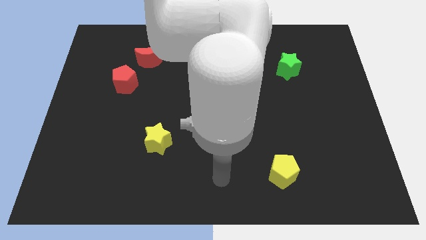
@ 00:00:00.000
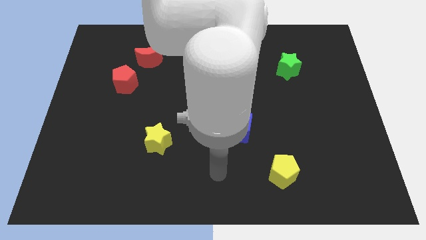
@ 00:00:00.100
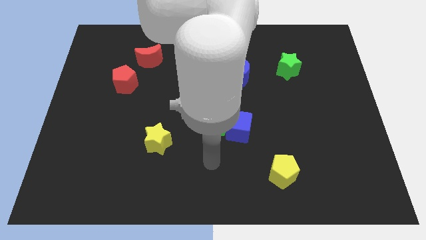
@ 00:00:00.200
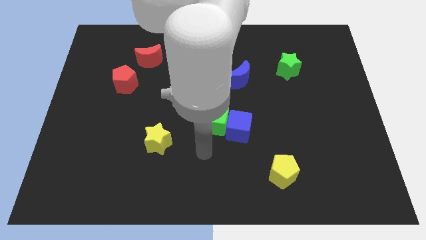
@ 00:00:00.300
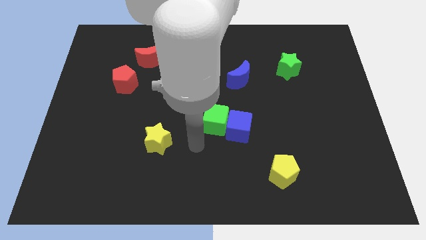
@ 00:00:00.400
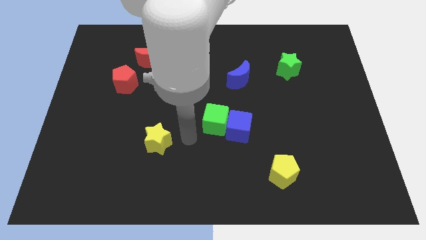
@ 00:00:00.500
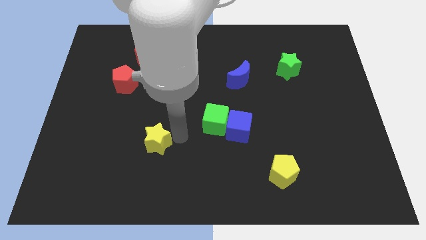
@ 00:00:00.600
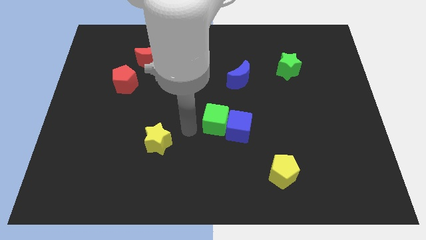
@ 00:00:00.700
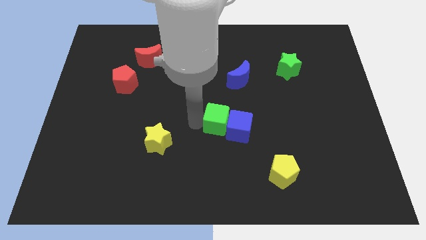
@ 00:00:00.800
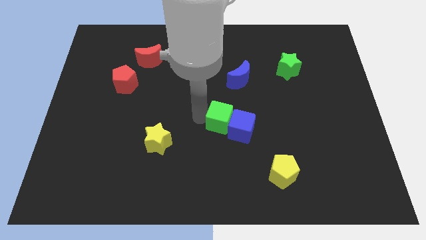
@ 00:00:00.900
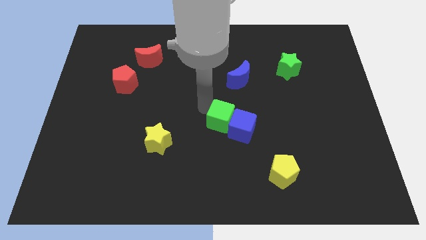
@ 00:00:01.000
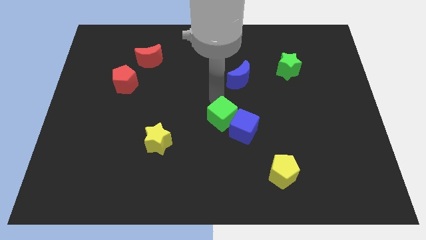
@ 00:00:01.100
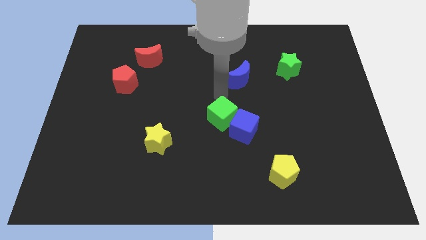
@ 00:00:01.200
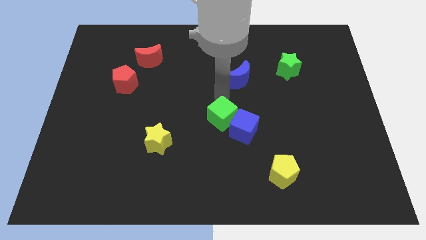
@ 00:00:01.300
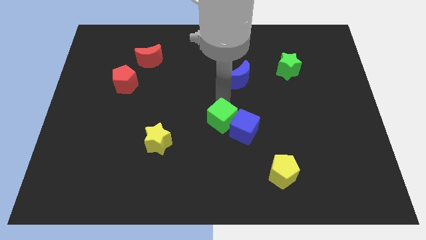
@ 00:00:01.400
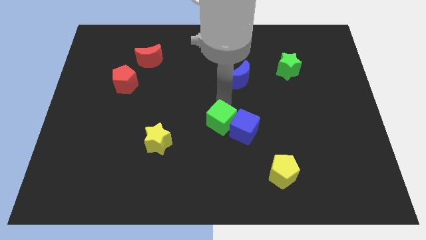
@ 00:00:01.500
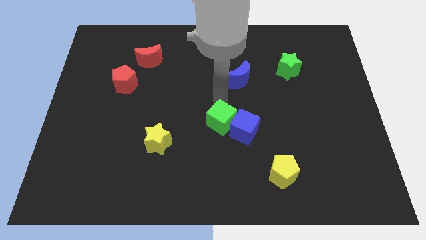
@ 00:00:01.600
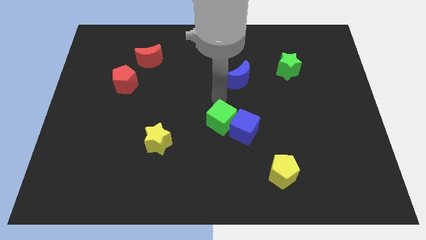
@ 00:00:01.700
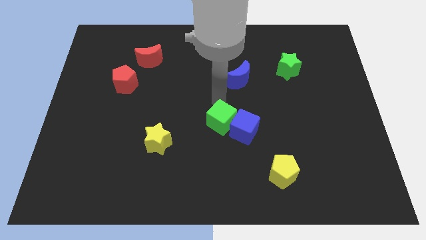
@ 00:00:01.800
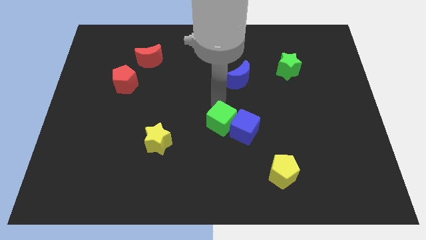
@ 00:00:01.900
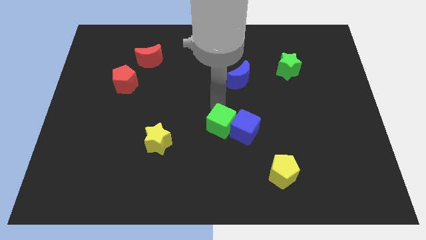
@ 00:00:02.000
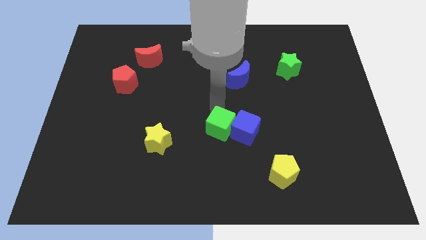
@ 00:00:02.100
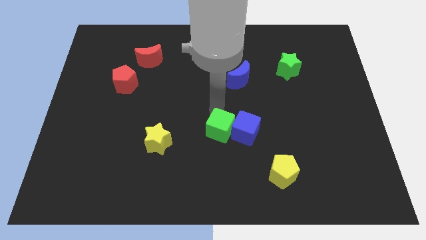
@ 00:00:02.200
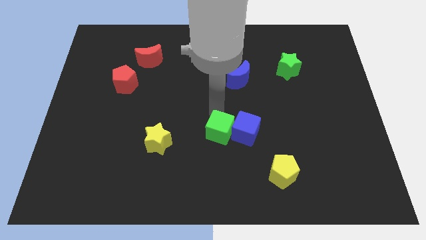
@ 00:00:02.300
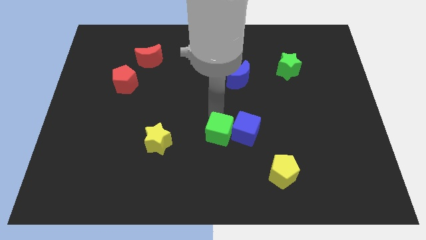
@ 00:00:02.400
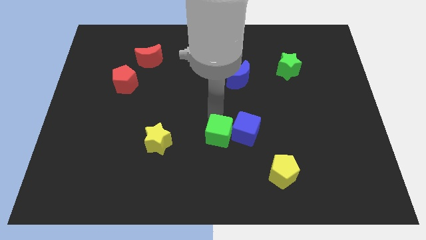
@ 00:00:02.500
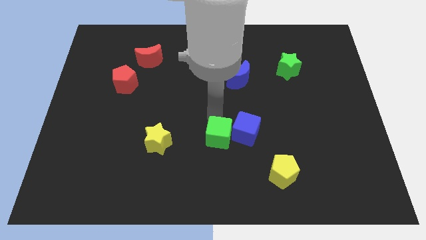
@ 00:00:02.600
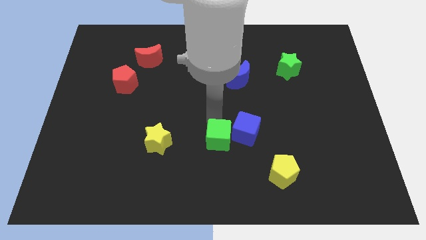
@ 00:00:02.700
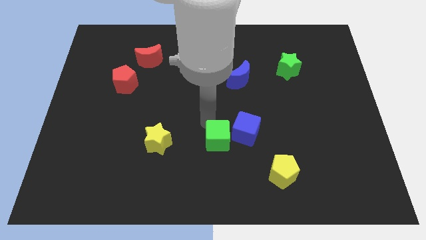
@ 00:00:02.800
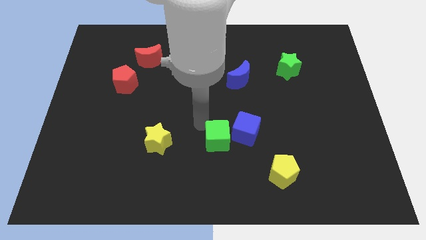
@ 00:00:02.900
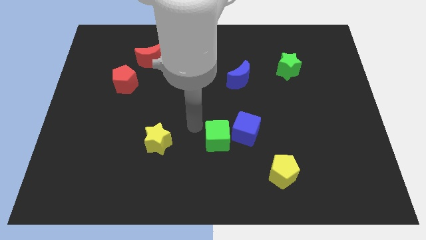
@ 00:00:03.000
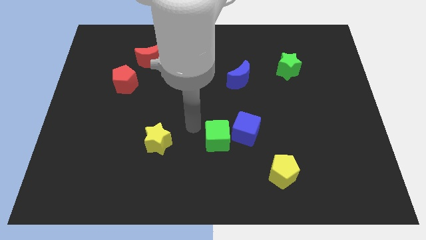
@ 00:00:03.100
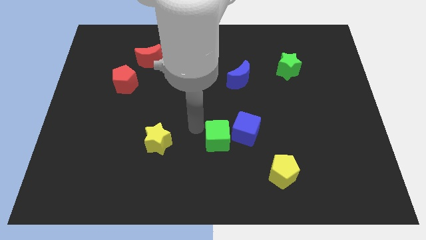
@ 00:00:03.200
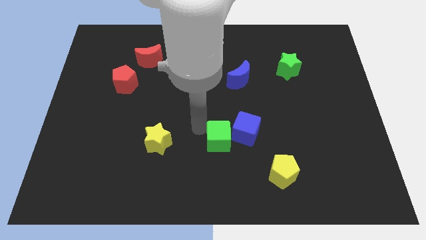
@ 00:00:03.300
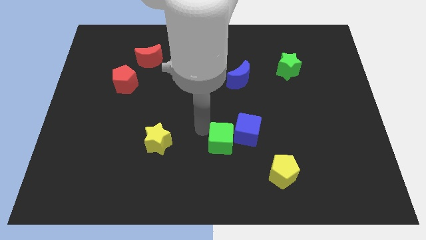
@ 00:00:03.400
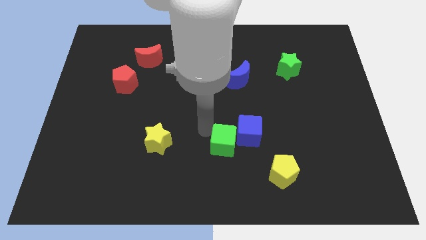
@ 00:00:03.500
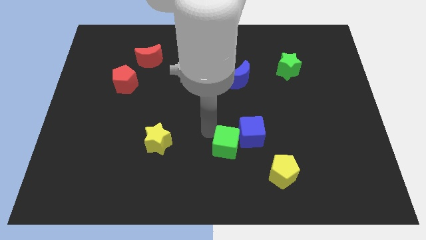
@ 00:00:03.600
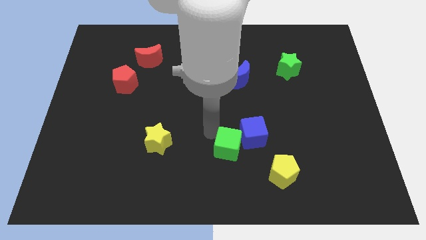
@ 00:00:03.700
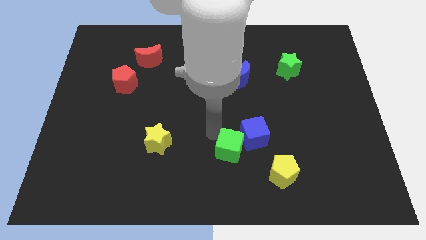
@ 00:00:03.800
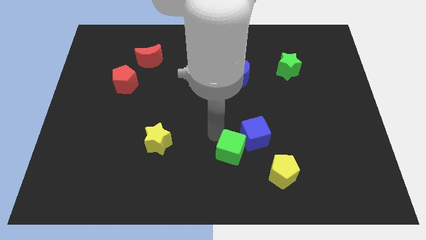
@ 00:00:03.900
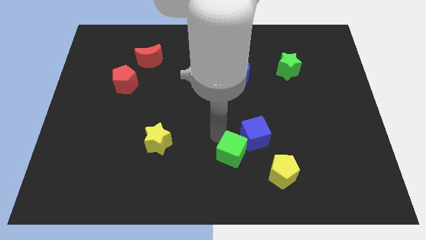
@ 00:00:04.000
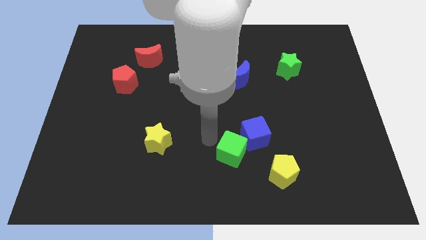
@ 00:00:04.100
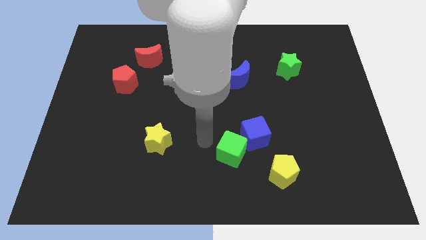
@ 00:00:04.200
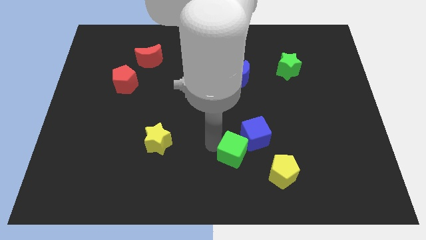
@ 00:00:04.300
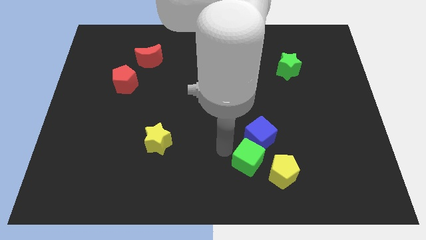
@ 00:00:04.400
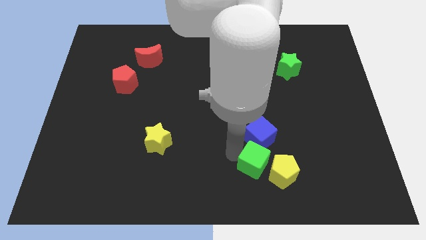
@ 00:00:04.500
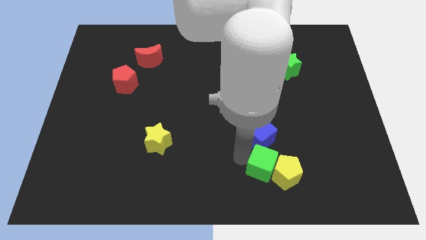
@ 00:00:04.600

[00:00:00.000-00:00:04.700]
push the green cube towards the yellow pentagon

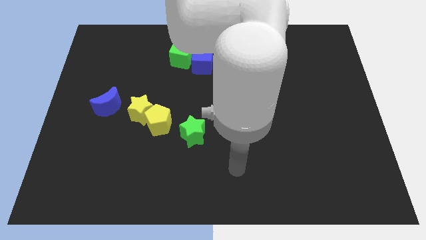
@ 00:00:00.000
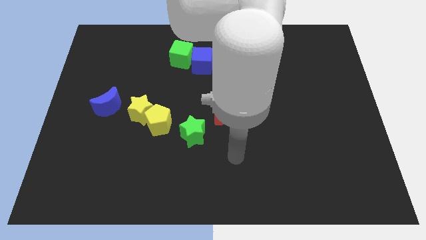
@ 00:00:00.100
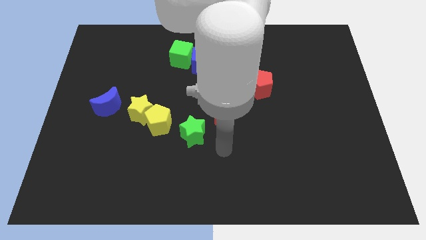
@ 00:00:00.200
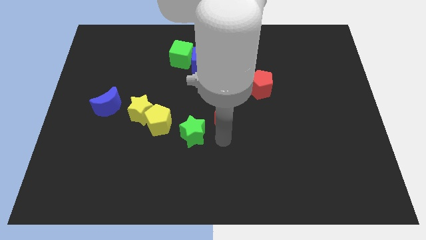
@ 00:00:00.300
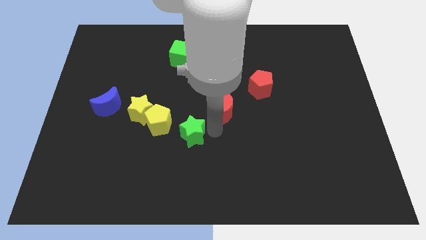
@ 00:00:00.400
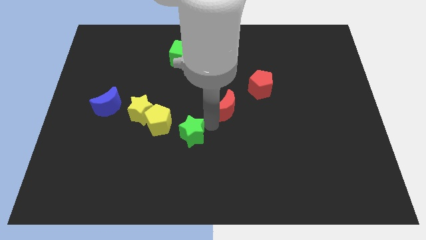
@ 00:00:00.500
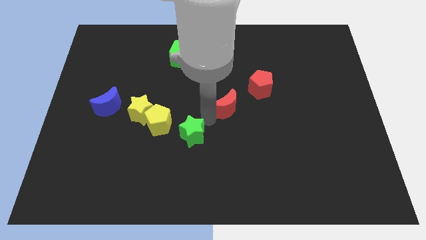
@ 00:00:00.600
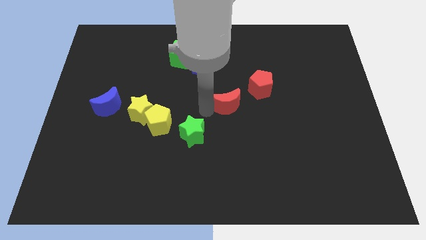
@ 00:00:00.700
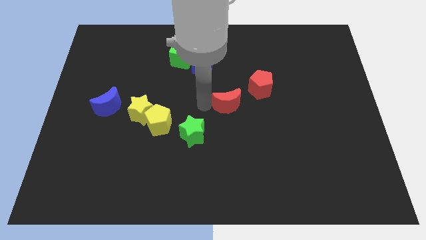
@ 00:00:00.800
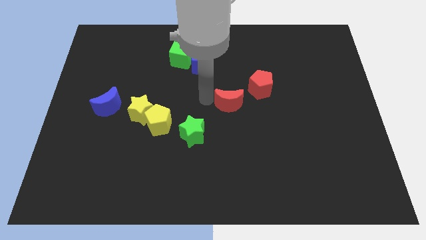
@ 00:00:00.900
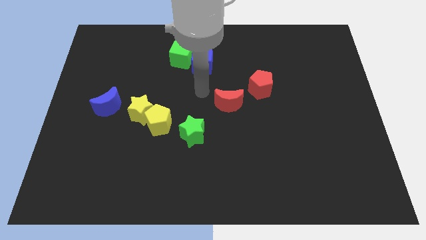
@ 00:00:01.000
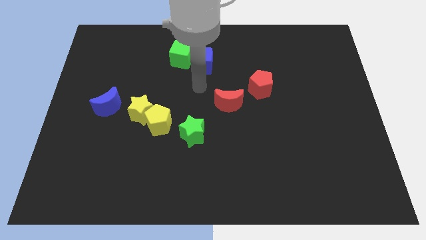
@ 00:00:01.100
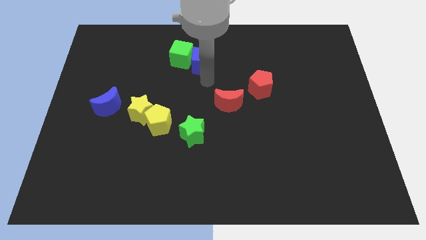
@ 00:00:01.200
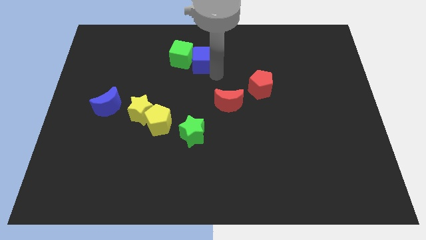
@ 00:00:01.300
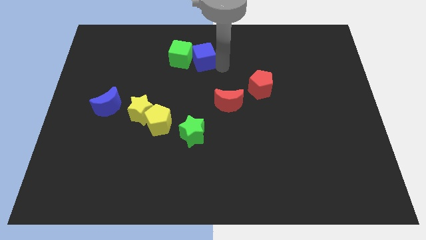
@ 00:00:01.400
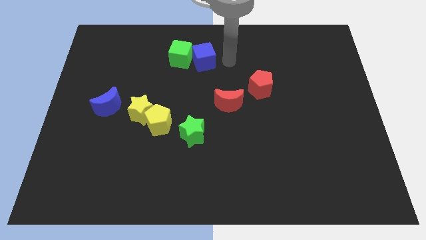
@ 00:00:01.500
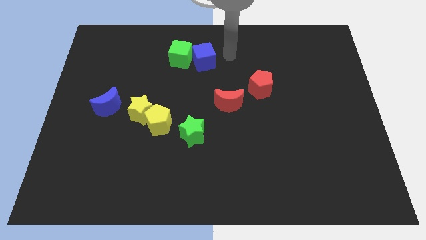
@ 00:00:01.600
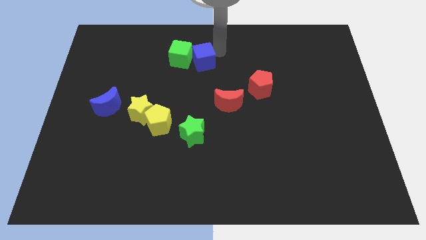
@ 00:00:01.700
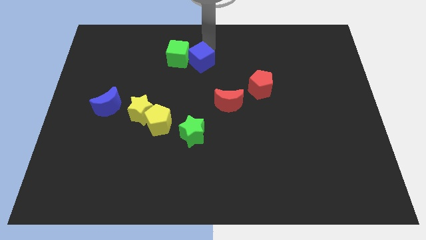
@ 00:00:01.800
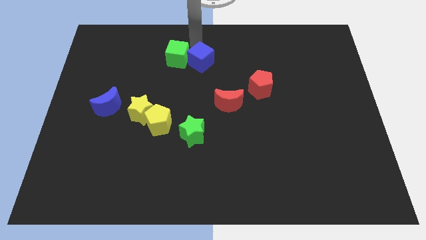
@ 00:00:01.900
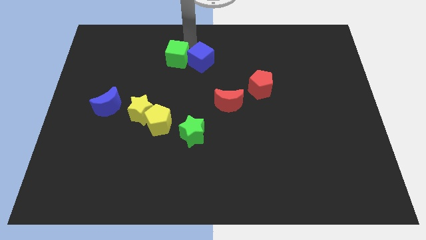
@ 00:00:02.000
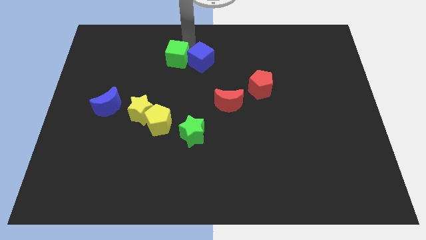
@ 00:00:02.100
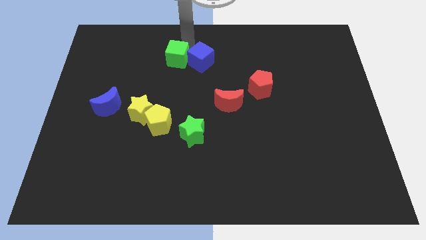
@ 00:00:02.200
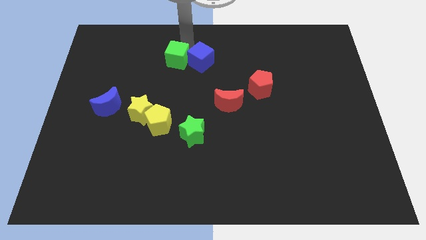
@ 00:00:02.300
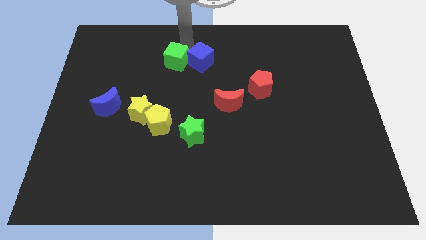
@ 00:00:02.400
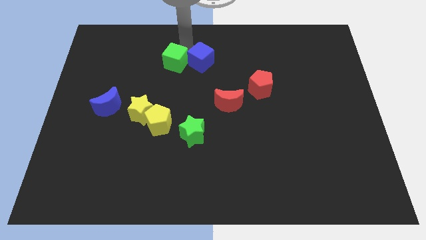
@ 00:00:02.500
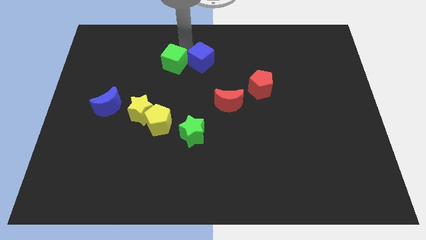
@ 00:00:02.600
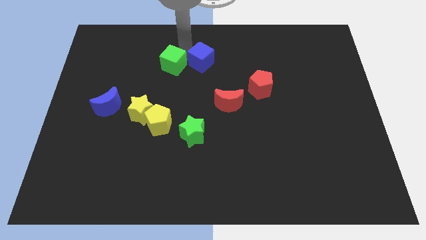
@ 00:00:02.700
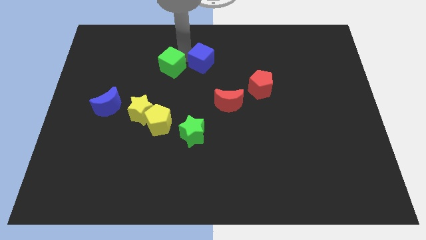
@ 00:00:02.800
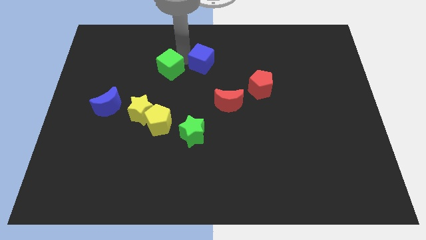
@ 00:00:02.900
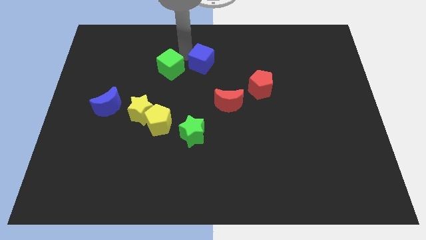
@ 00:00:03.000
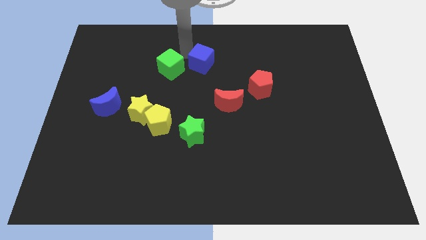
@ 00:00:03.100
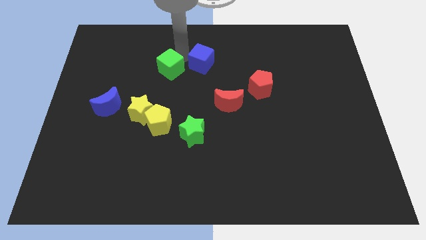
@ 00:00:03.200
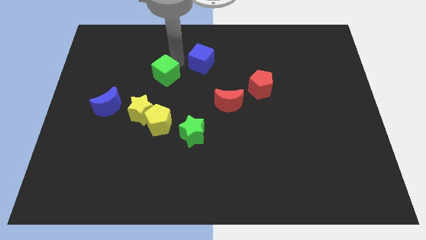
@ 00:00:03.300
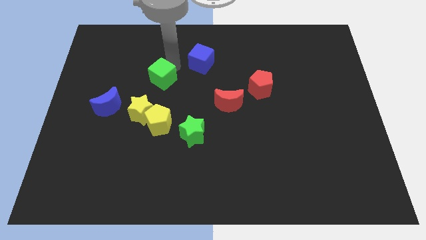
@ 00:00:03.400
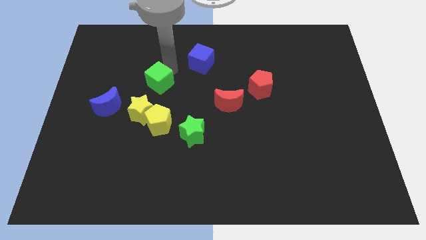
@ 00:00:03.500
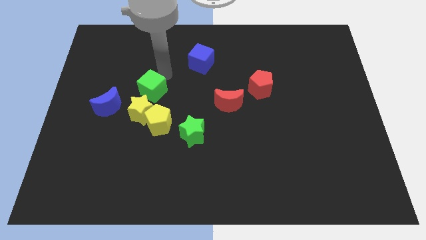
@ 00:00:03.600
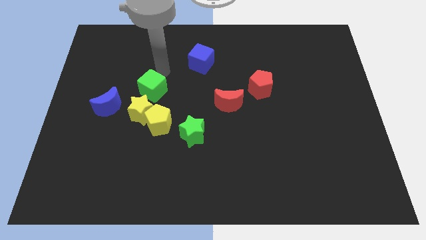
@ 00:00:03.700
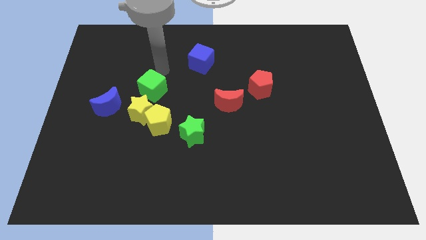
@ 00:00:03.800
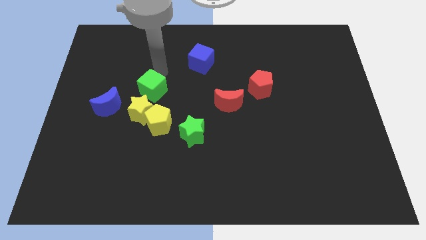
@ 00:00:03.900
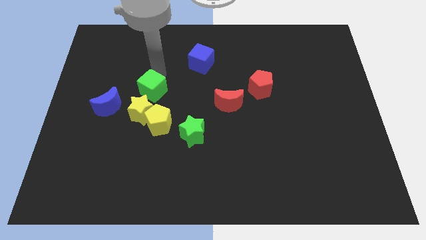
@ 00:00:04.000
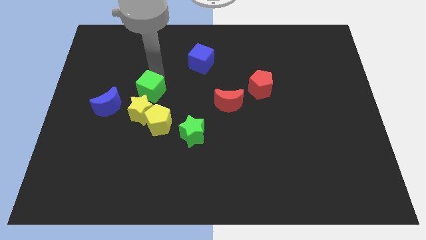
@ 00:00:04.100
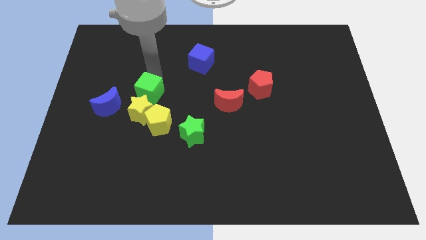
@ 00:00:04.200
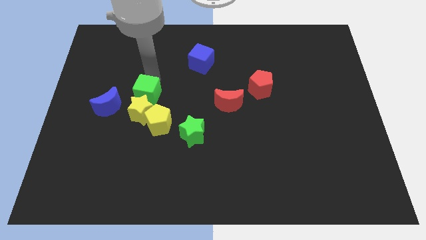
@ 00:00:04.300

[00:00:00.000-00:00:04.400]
put the green cube close to the yellow star
